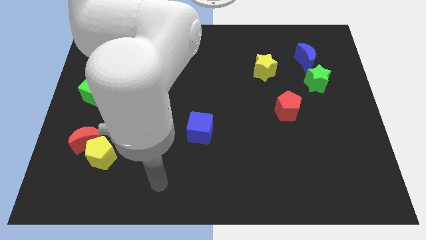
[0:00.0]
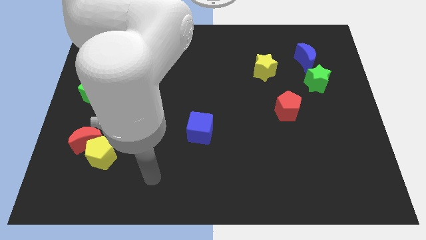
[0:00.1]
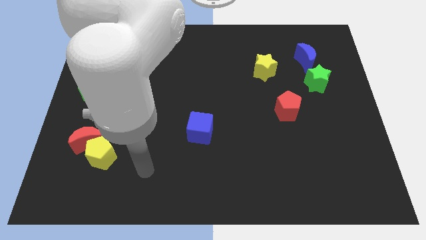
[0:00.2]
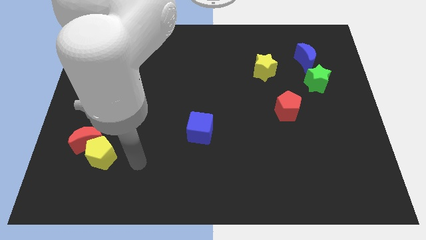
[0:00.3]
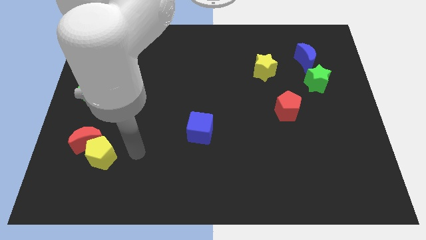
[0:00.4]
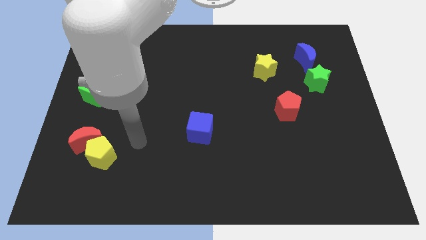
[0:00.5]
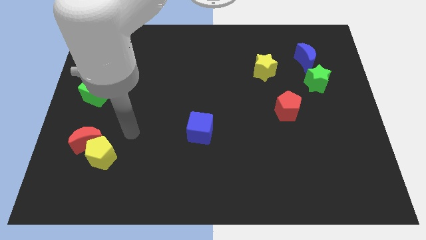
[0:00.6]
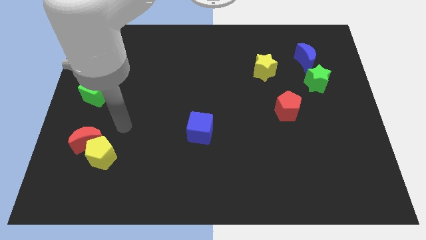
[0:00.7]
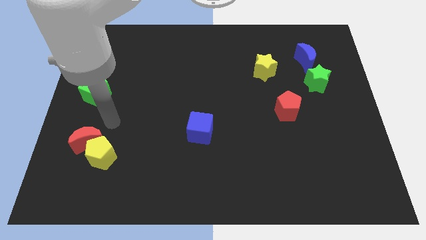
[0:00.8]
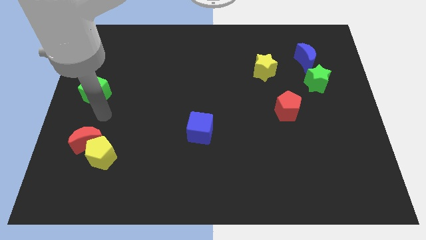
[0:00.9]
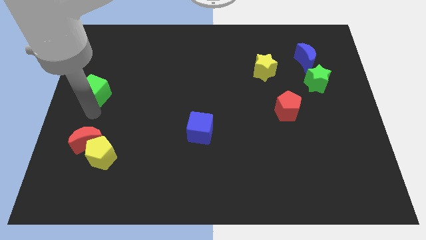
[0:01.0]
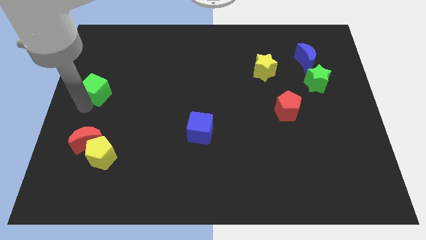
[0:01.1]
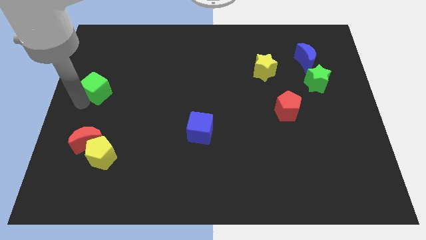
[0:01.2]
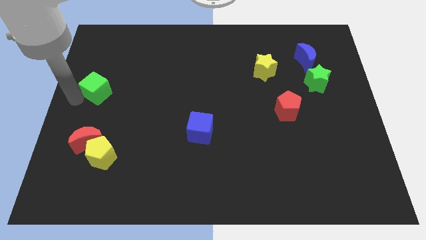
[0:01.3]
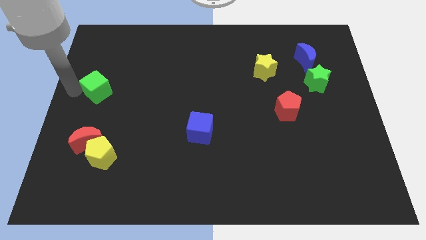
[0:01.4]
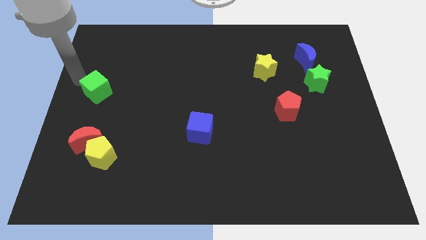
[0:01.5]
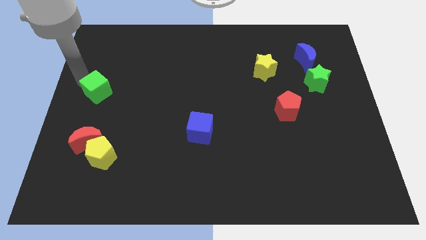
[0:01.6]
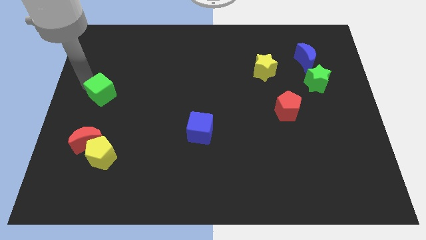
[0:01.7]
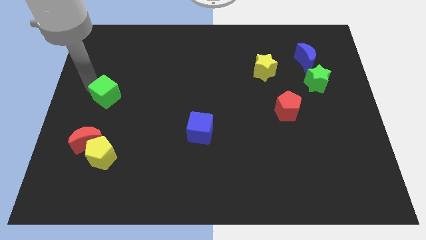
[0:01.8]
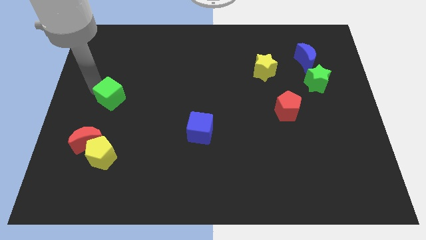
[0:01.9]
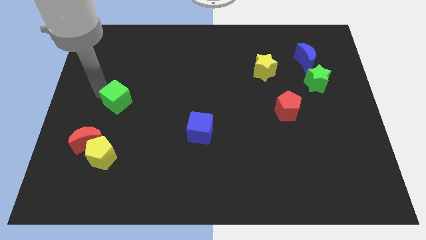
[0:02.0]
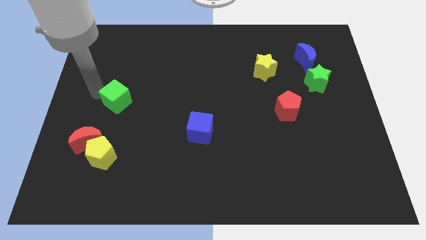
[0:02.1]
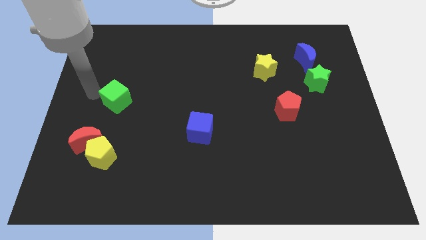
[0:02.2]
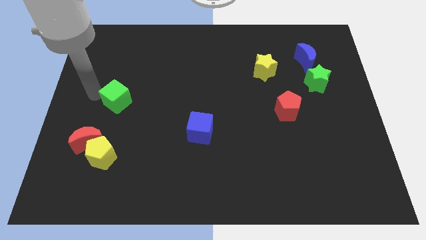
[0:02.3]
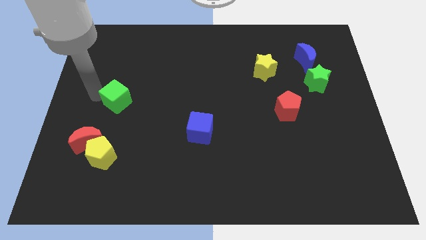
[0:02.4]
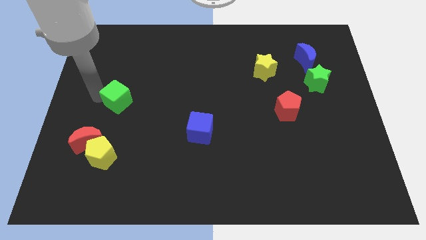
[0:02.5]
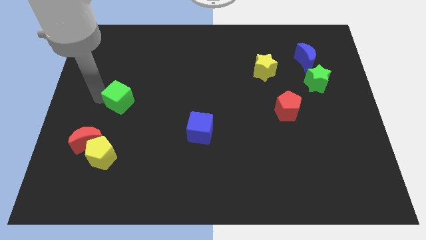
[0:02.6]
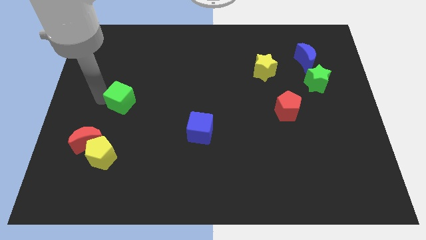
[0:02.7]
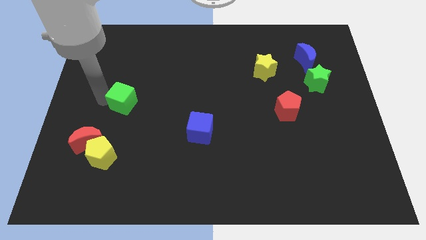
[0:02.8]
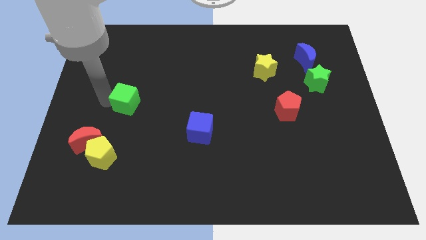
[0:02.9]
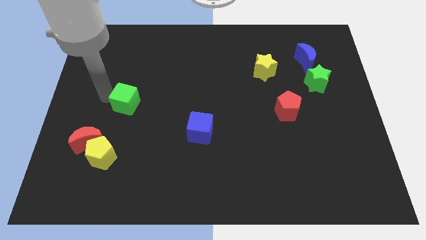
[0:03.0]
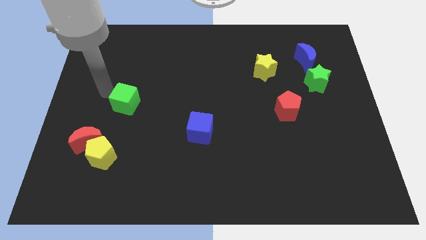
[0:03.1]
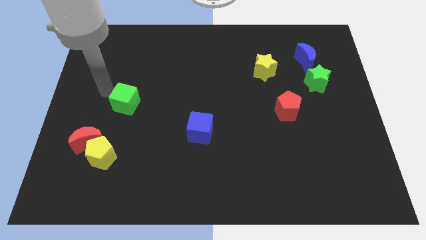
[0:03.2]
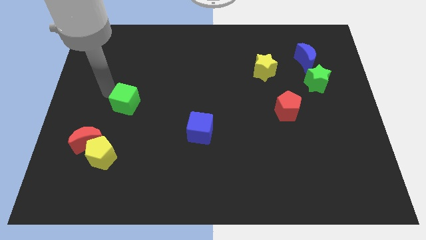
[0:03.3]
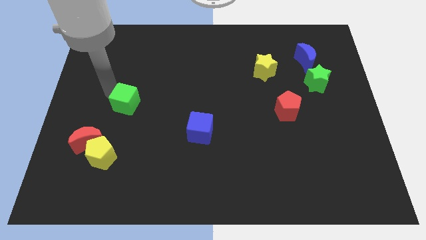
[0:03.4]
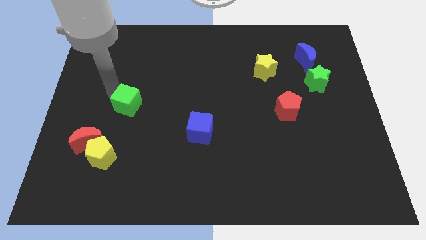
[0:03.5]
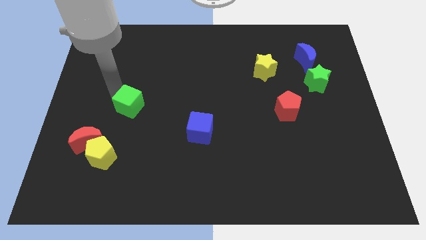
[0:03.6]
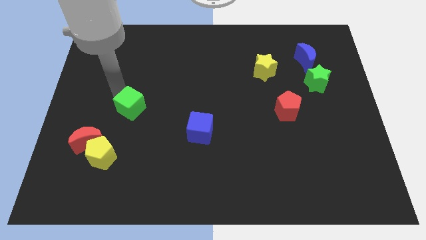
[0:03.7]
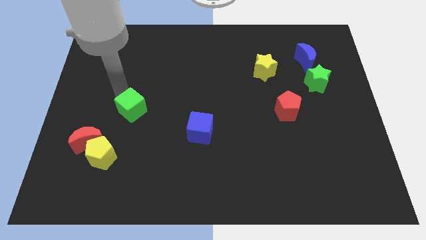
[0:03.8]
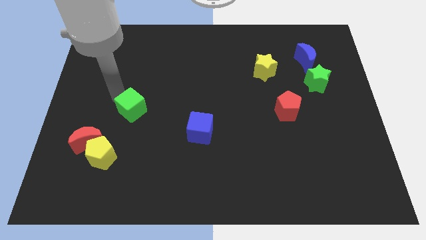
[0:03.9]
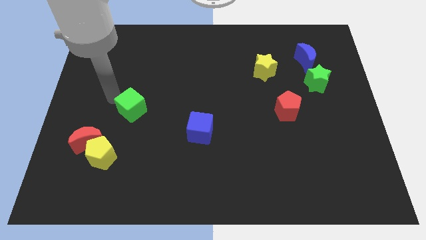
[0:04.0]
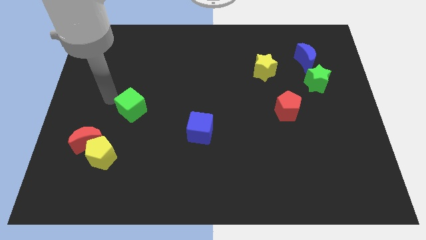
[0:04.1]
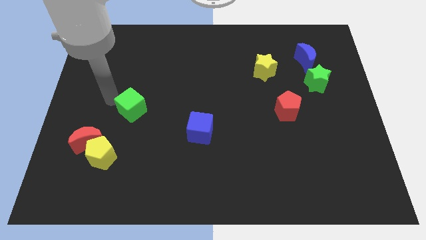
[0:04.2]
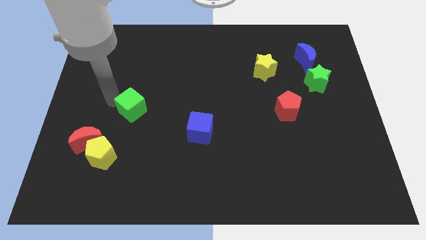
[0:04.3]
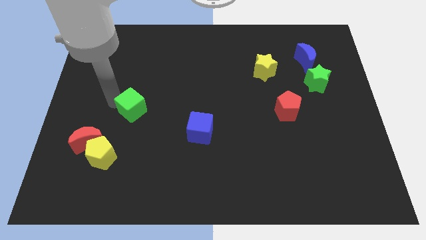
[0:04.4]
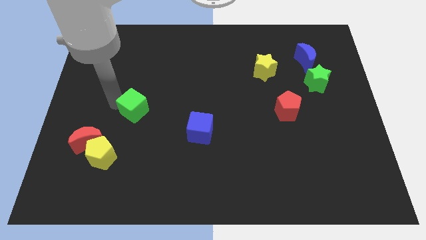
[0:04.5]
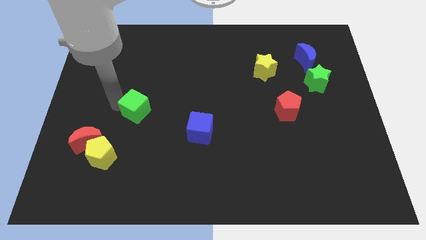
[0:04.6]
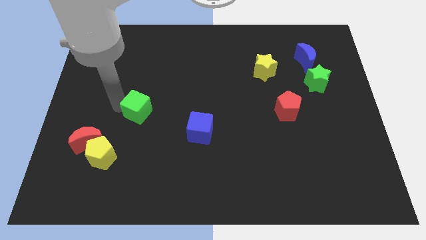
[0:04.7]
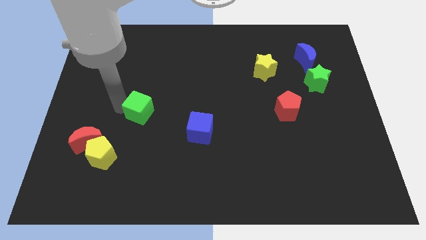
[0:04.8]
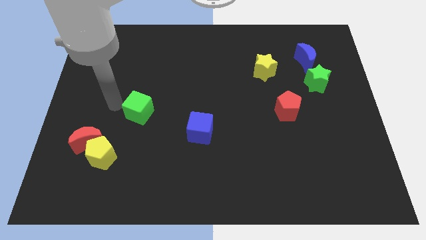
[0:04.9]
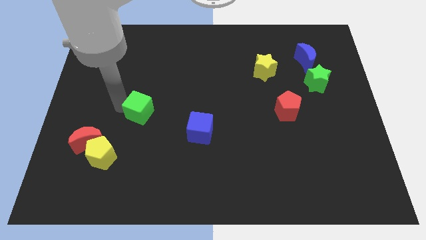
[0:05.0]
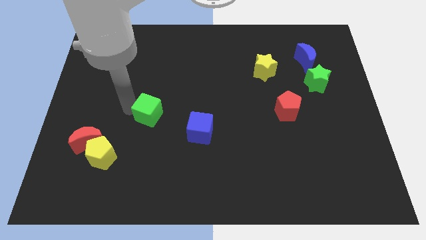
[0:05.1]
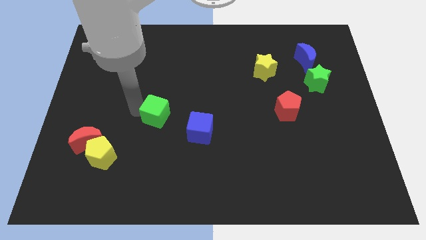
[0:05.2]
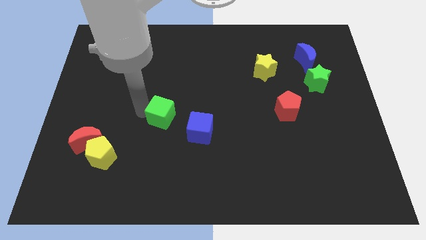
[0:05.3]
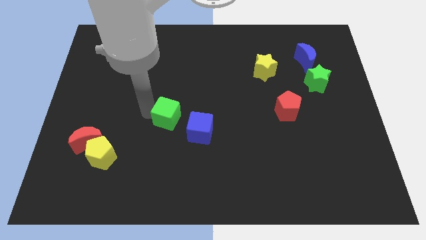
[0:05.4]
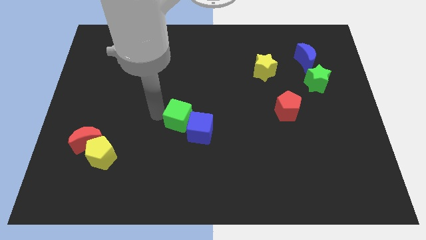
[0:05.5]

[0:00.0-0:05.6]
move the green cube towards the blue cube

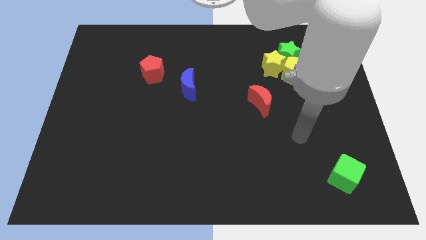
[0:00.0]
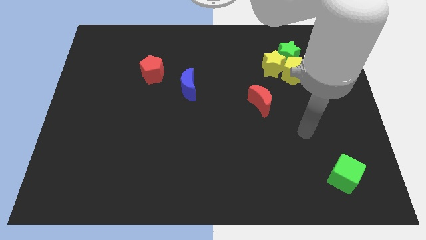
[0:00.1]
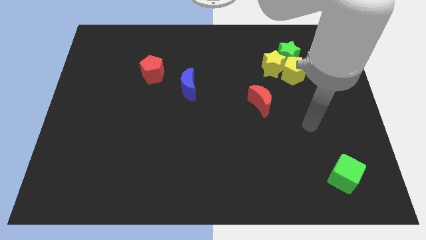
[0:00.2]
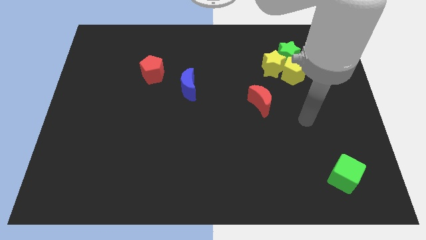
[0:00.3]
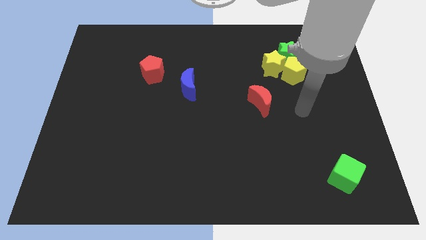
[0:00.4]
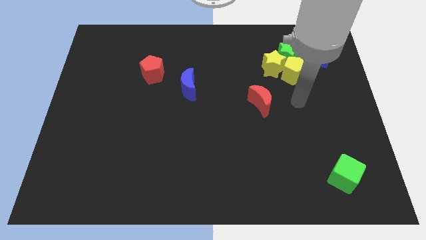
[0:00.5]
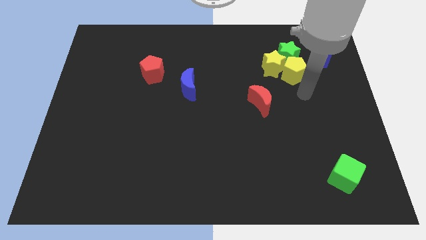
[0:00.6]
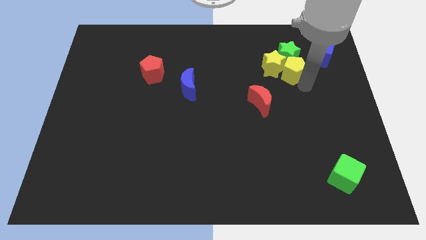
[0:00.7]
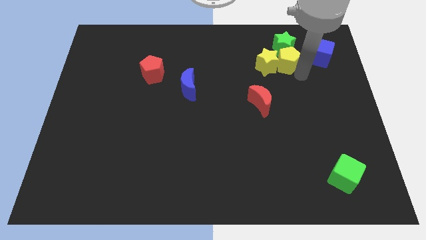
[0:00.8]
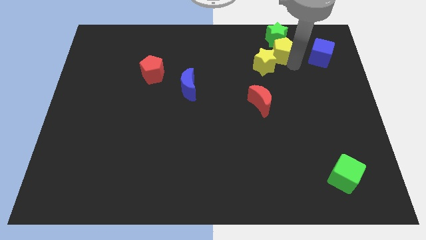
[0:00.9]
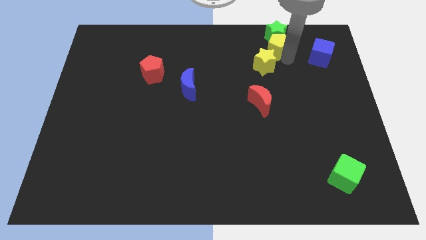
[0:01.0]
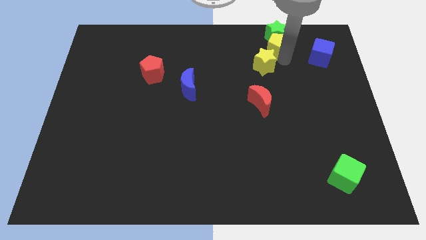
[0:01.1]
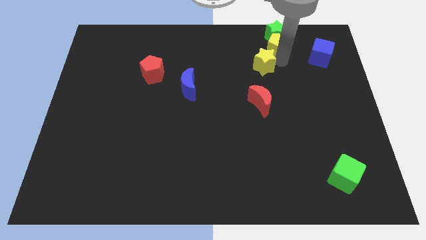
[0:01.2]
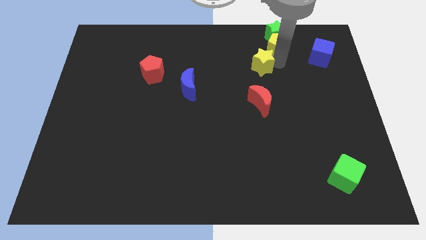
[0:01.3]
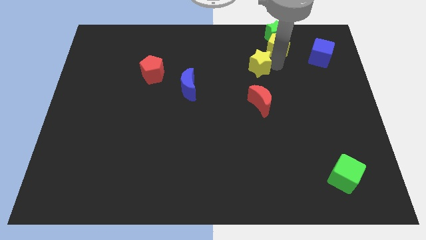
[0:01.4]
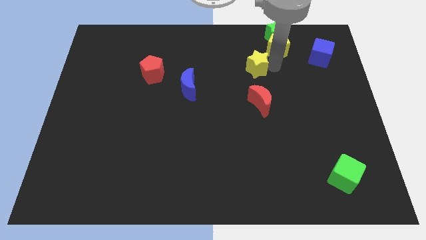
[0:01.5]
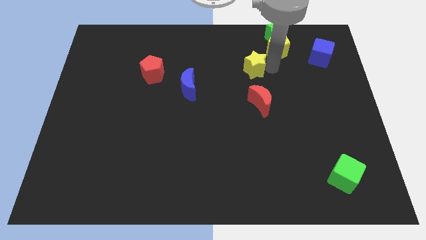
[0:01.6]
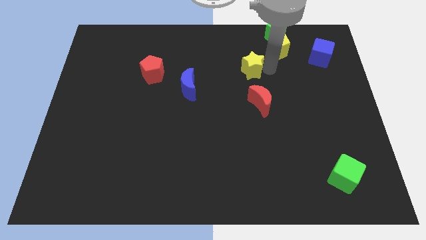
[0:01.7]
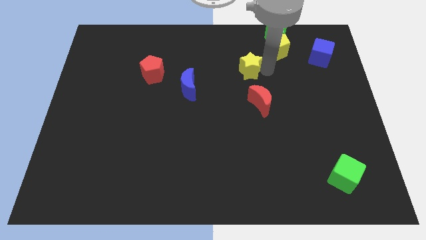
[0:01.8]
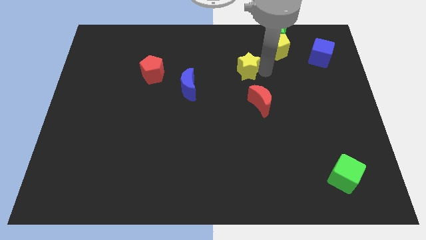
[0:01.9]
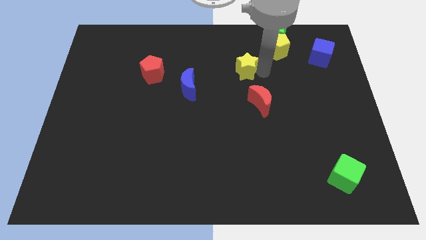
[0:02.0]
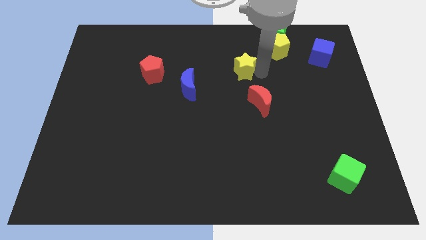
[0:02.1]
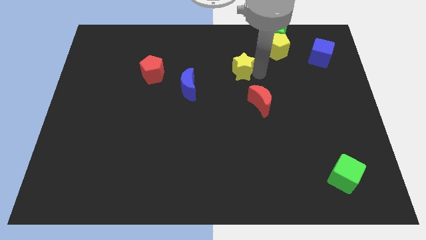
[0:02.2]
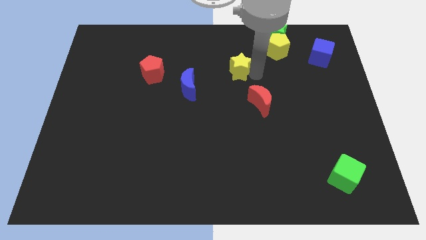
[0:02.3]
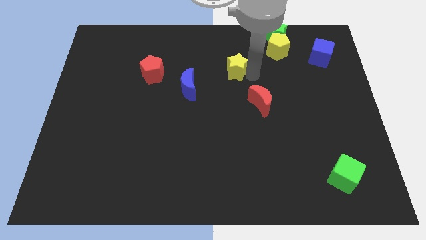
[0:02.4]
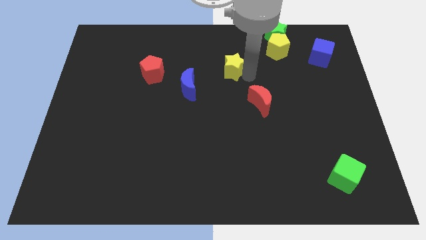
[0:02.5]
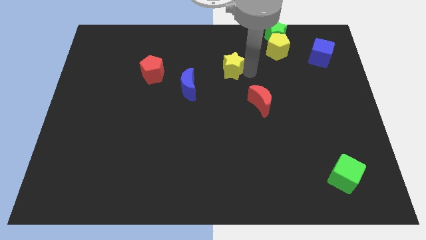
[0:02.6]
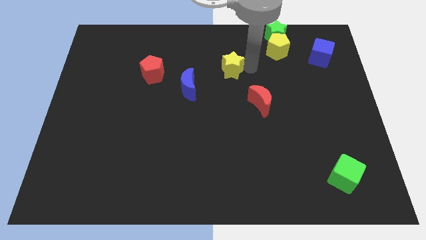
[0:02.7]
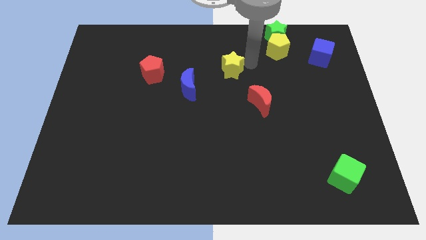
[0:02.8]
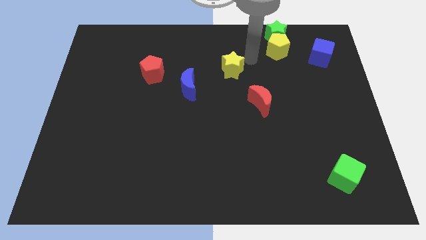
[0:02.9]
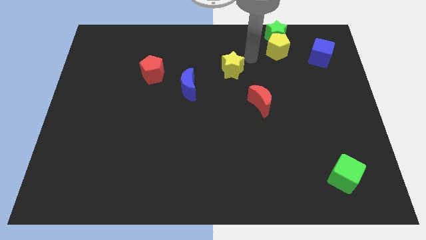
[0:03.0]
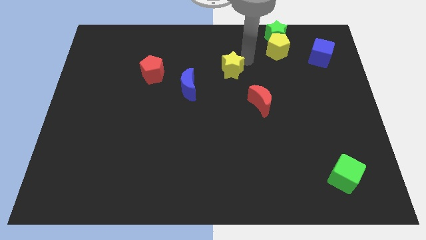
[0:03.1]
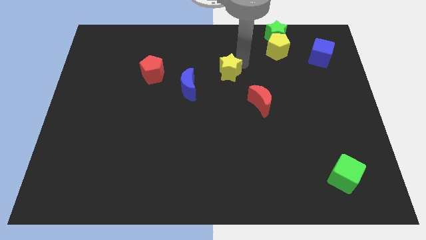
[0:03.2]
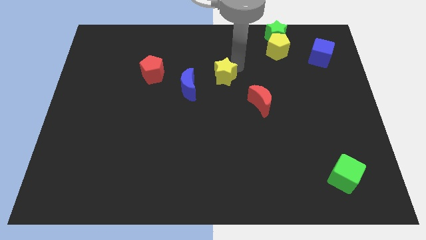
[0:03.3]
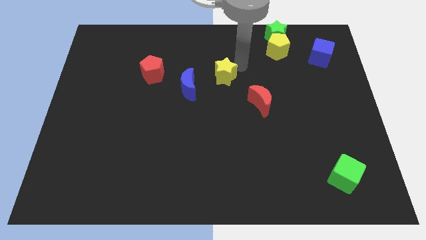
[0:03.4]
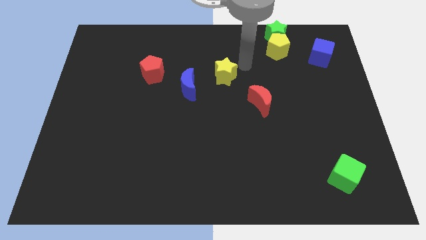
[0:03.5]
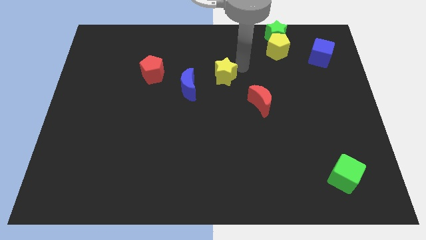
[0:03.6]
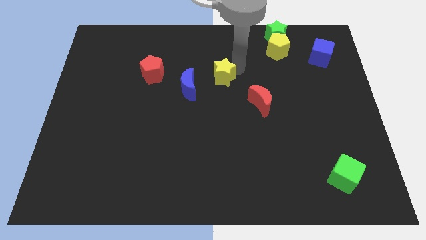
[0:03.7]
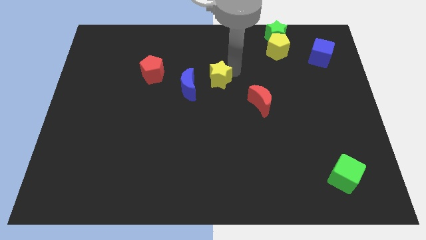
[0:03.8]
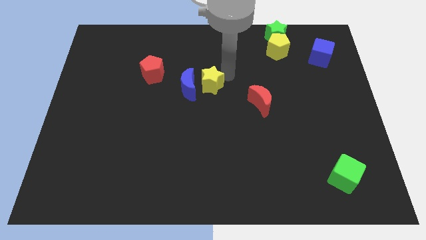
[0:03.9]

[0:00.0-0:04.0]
slide the yellow star next to the blue moon
